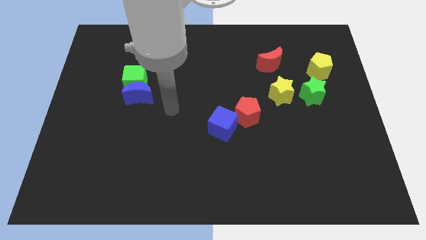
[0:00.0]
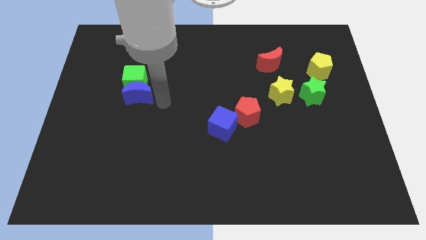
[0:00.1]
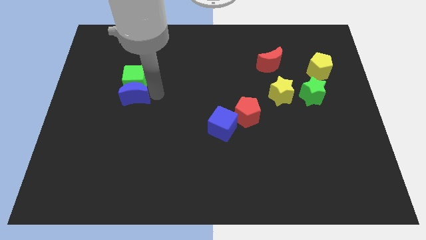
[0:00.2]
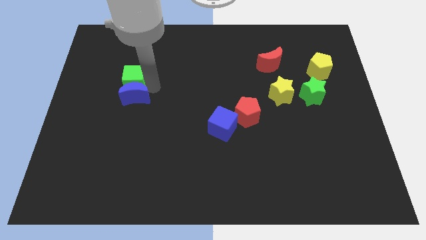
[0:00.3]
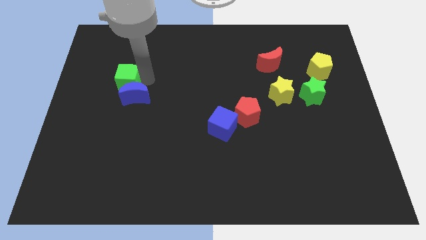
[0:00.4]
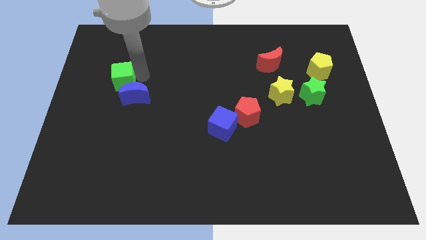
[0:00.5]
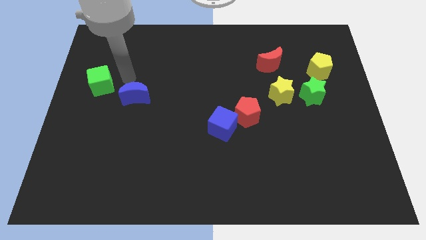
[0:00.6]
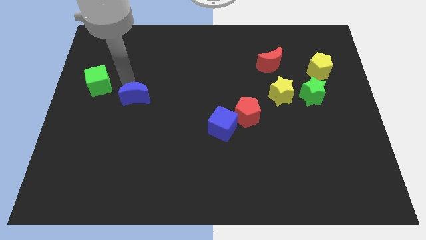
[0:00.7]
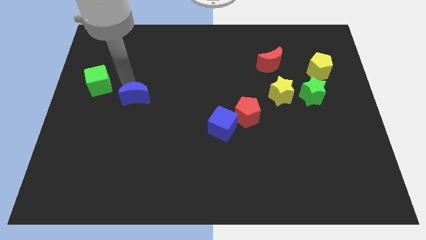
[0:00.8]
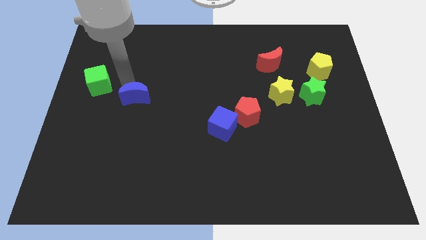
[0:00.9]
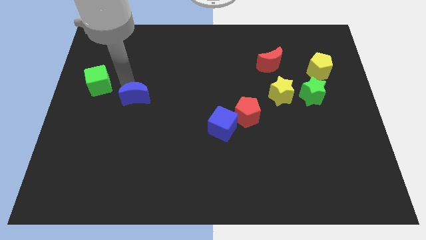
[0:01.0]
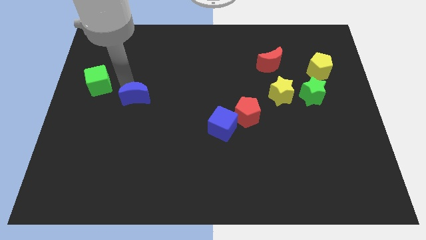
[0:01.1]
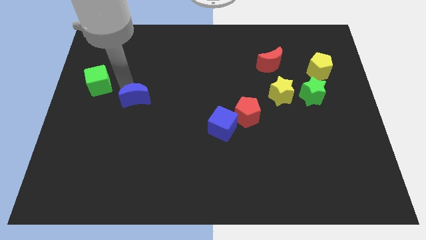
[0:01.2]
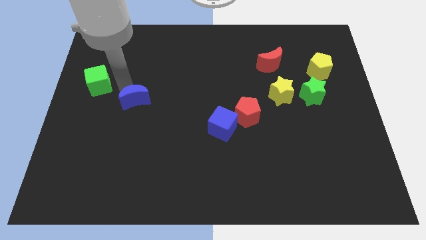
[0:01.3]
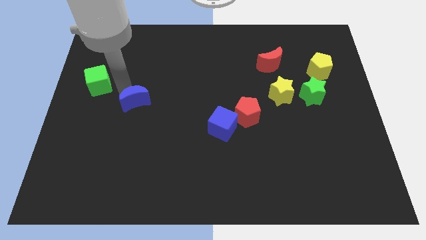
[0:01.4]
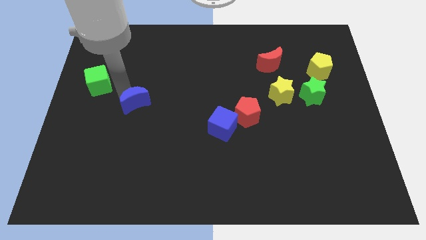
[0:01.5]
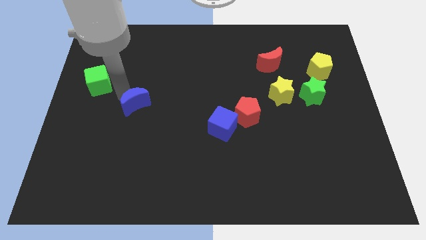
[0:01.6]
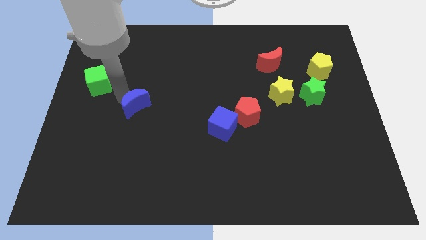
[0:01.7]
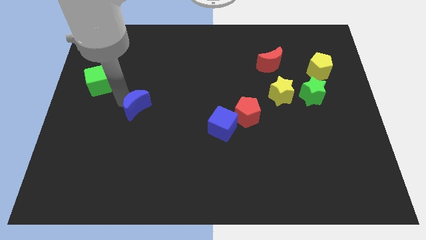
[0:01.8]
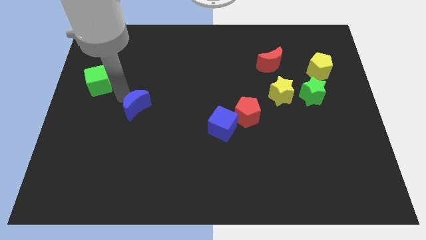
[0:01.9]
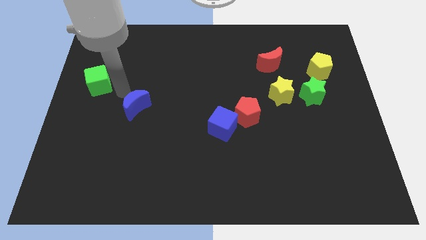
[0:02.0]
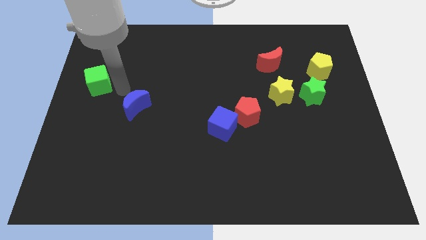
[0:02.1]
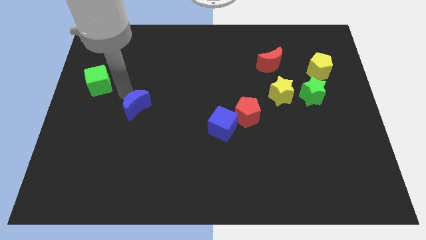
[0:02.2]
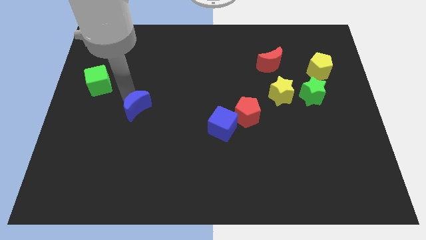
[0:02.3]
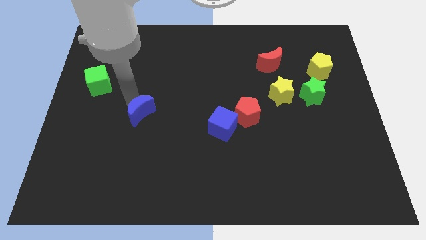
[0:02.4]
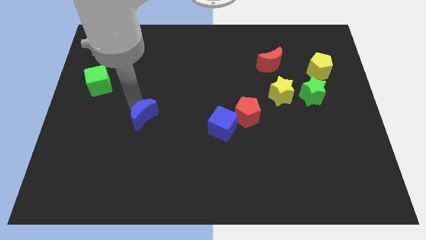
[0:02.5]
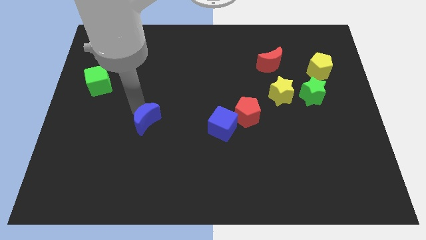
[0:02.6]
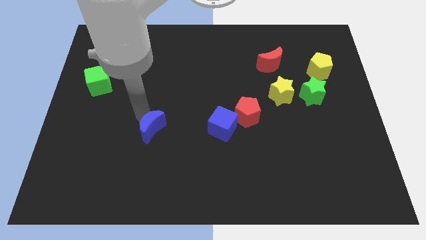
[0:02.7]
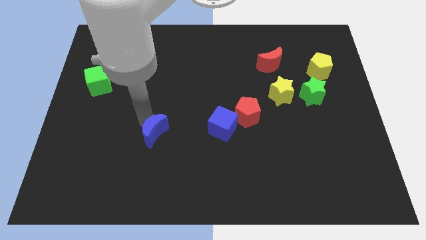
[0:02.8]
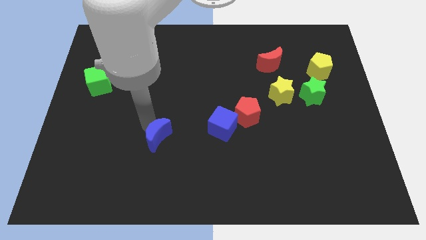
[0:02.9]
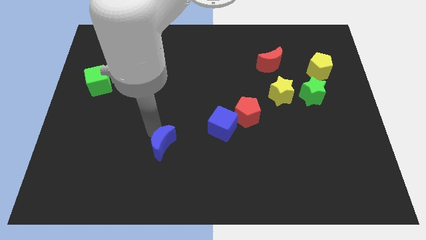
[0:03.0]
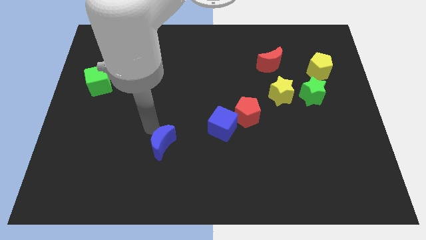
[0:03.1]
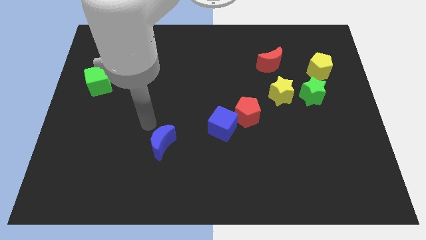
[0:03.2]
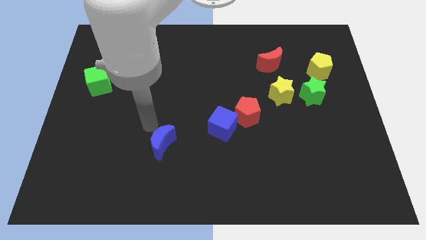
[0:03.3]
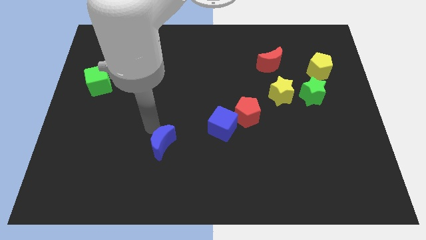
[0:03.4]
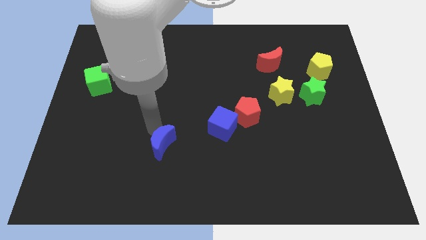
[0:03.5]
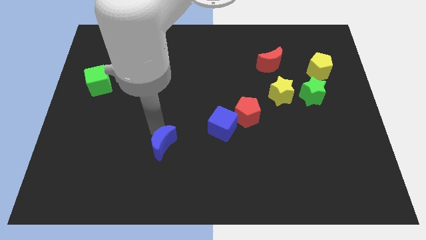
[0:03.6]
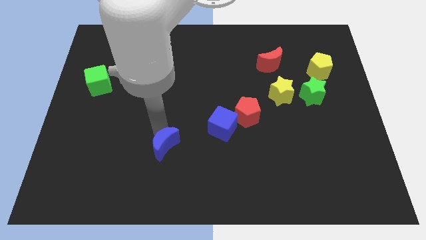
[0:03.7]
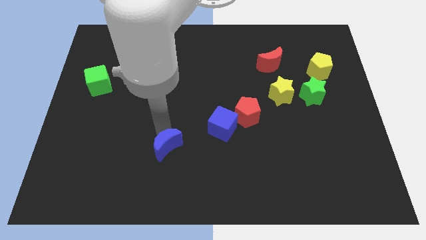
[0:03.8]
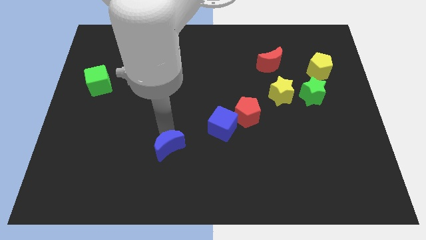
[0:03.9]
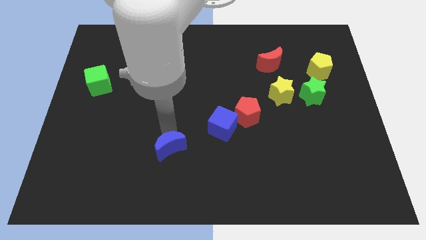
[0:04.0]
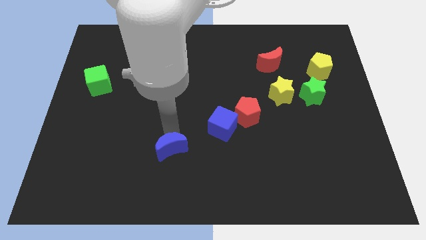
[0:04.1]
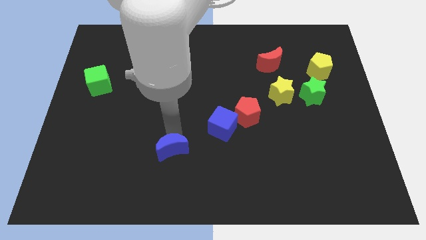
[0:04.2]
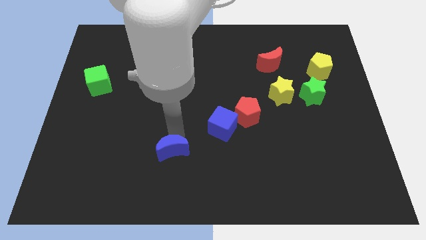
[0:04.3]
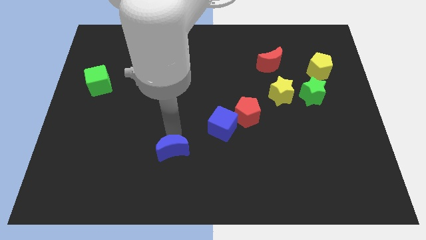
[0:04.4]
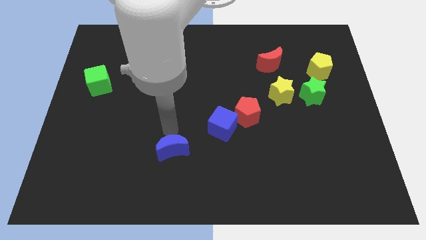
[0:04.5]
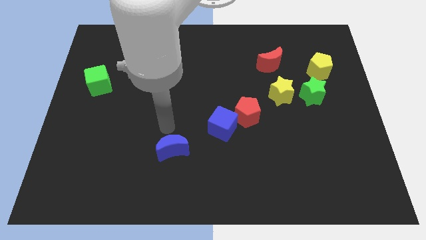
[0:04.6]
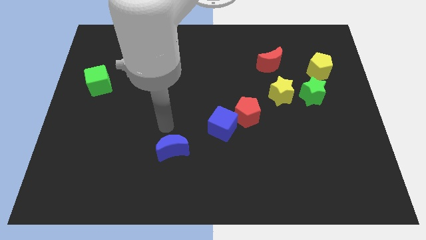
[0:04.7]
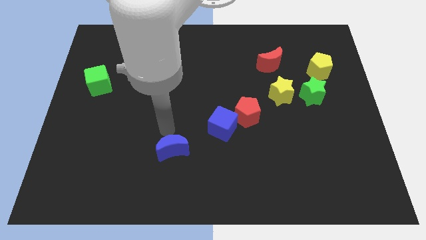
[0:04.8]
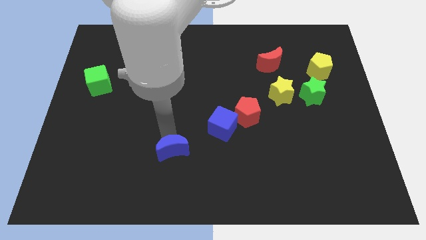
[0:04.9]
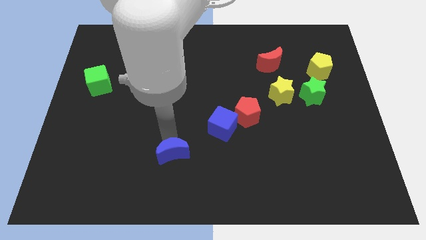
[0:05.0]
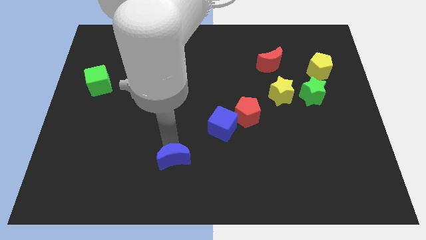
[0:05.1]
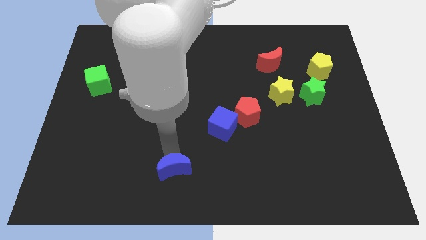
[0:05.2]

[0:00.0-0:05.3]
move the blue moon to the bottom
